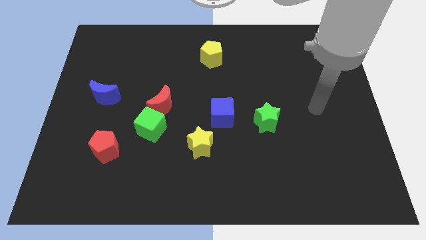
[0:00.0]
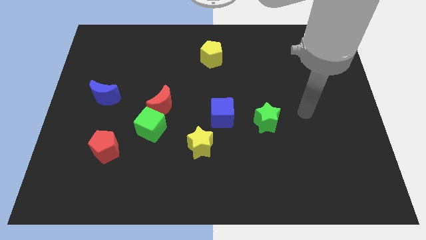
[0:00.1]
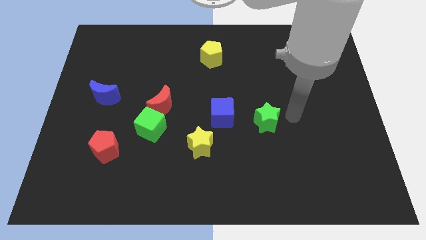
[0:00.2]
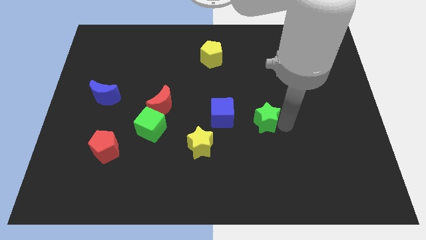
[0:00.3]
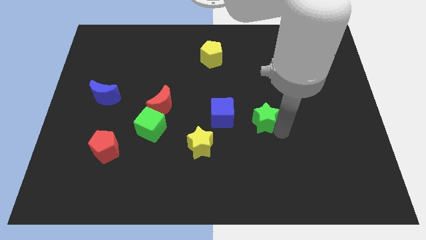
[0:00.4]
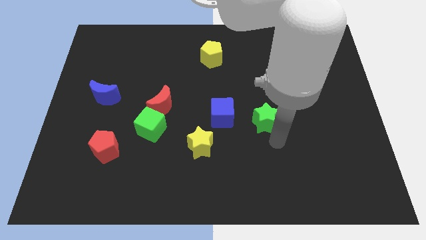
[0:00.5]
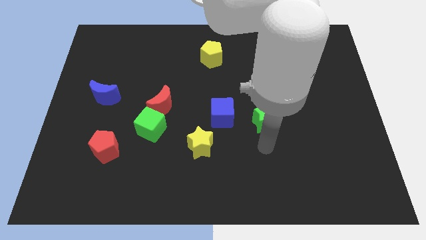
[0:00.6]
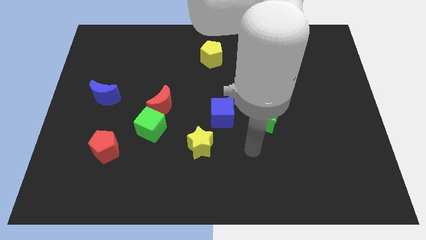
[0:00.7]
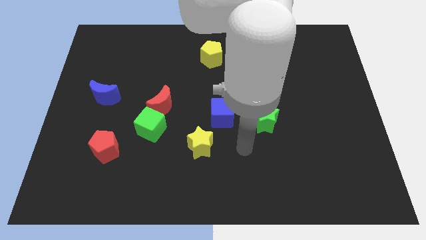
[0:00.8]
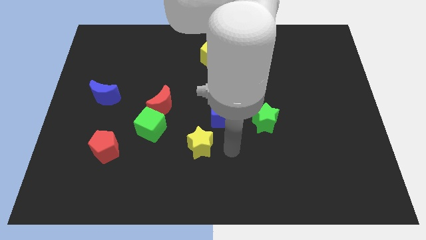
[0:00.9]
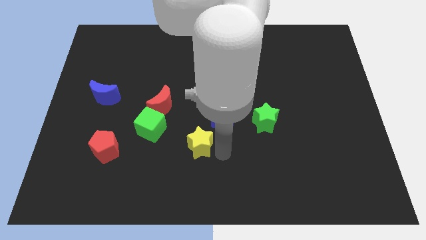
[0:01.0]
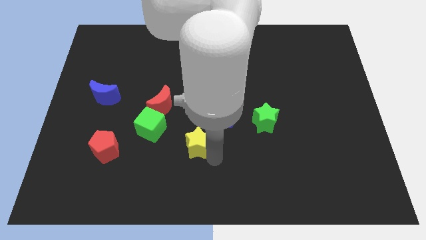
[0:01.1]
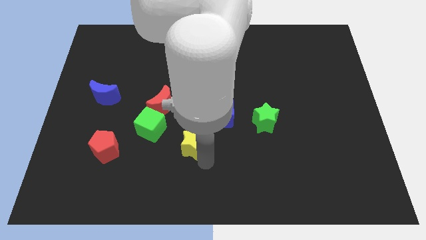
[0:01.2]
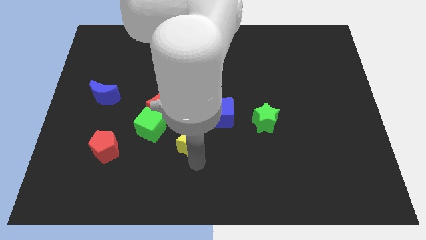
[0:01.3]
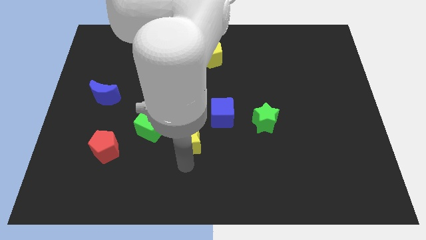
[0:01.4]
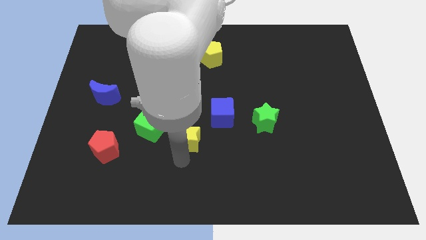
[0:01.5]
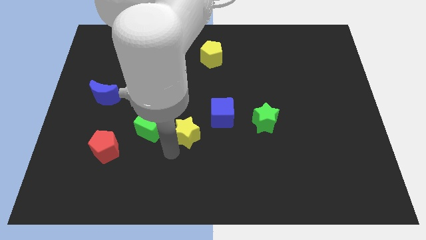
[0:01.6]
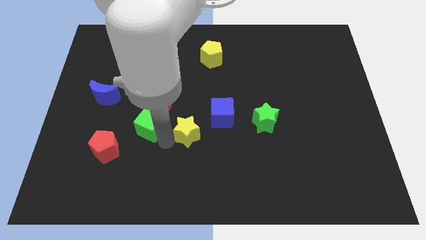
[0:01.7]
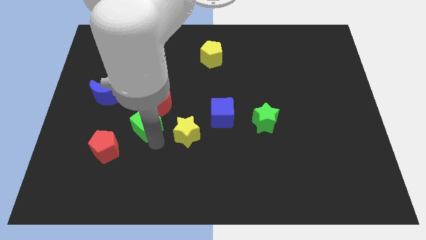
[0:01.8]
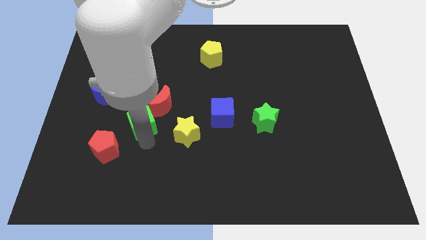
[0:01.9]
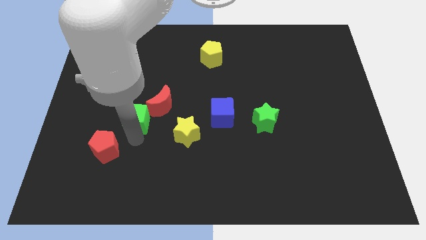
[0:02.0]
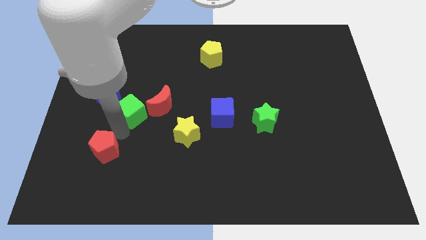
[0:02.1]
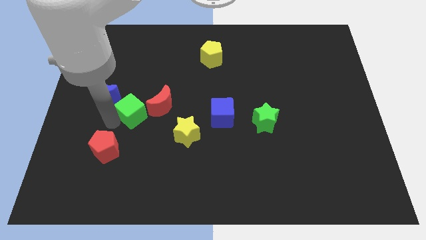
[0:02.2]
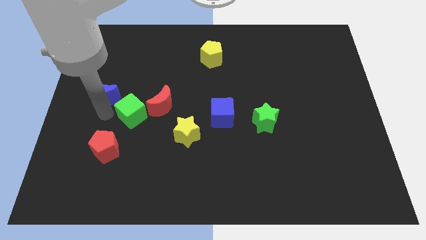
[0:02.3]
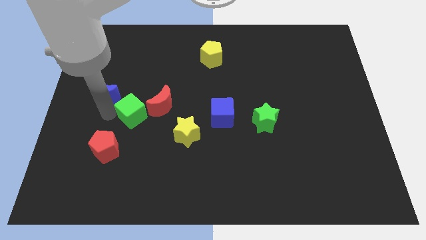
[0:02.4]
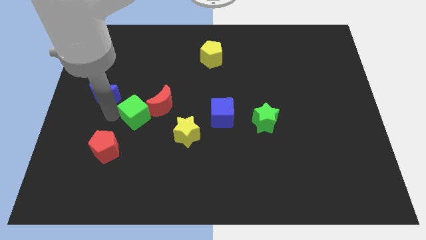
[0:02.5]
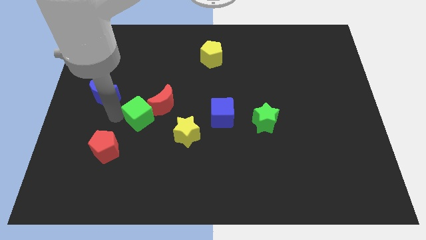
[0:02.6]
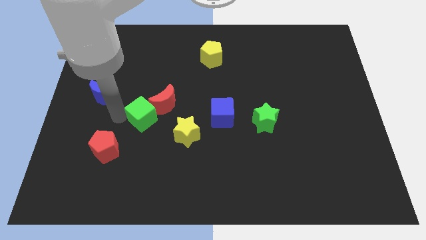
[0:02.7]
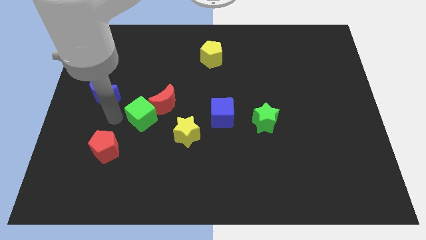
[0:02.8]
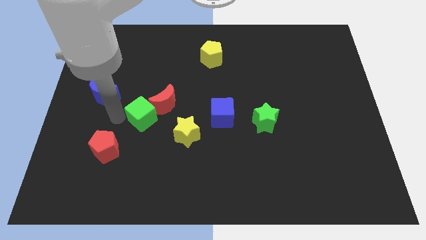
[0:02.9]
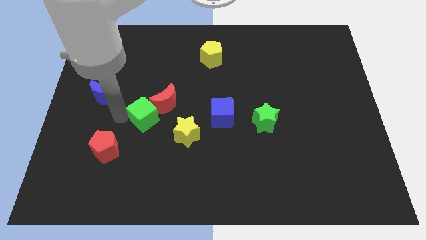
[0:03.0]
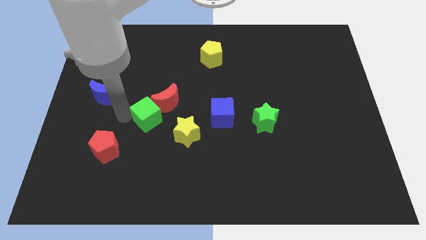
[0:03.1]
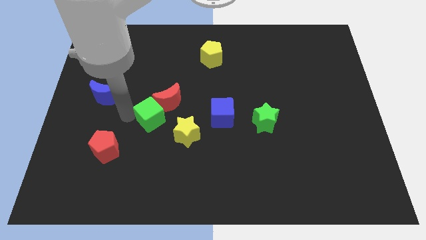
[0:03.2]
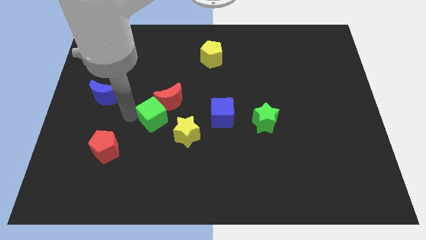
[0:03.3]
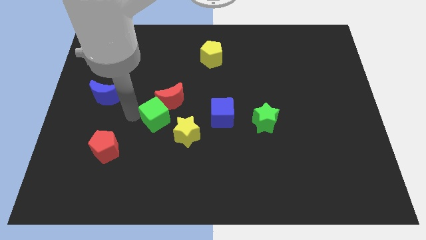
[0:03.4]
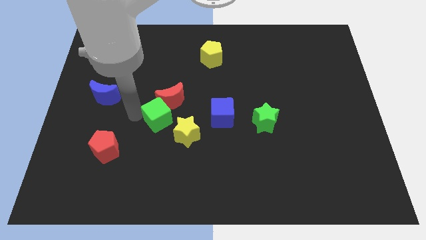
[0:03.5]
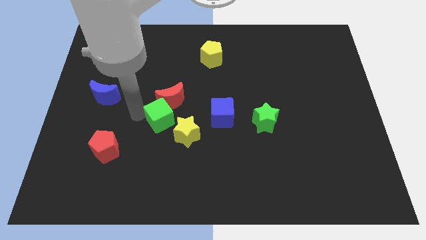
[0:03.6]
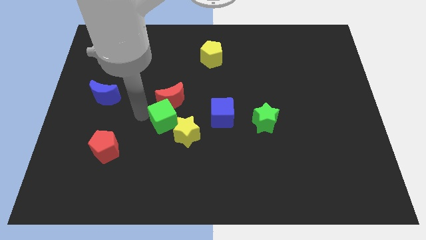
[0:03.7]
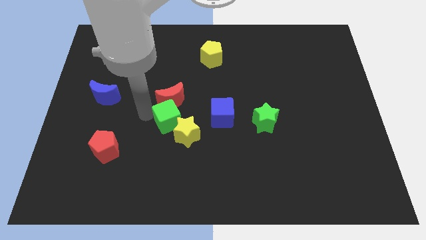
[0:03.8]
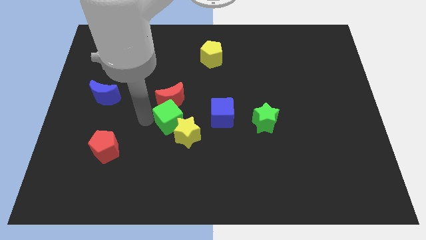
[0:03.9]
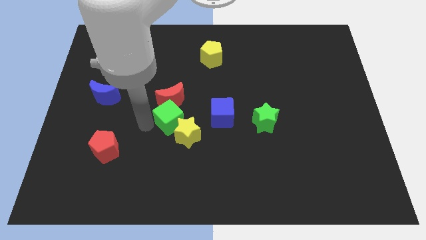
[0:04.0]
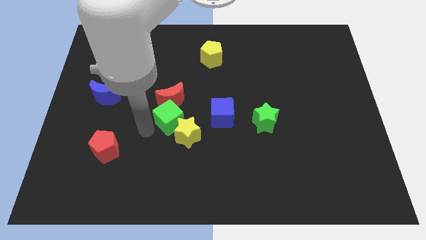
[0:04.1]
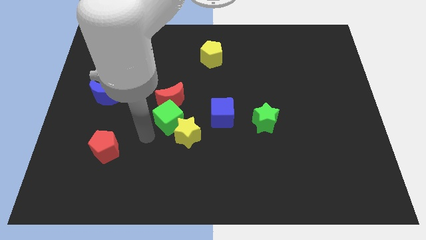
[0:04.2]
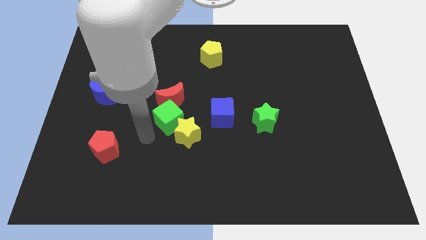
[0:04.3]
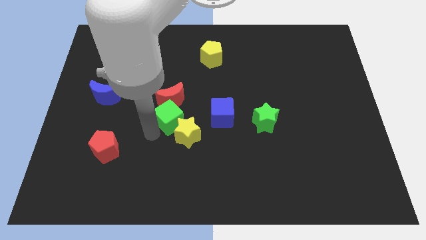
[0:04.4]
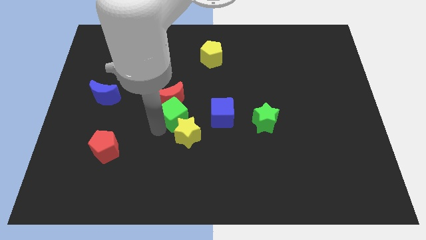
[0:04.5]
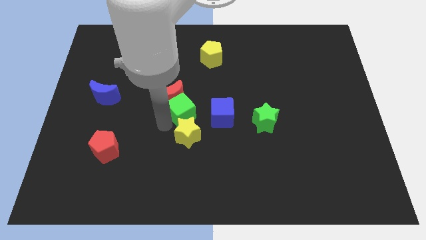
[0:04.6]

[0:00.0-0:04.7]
push the green cube a little up and then right

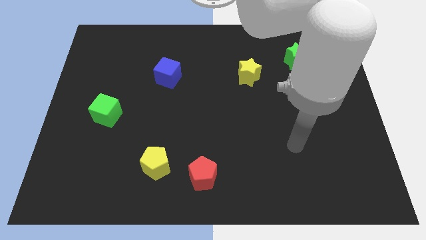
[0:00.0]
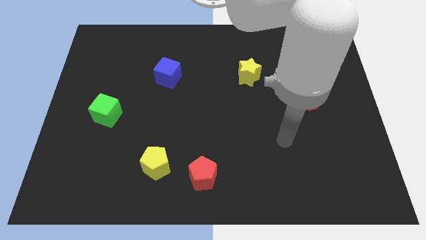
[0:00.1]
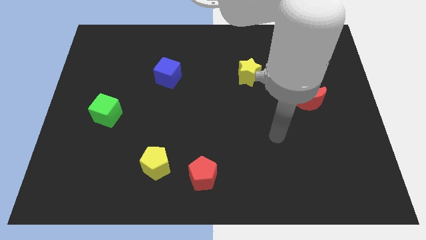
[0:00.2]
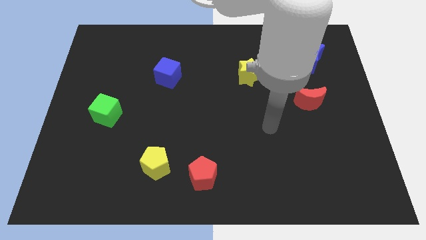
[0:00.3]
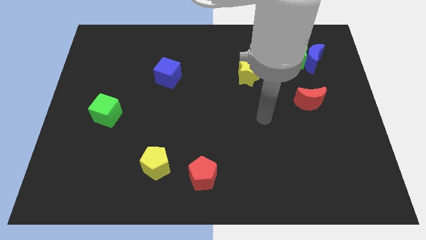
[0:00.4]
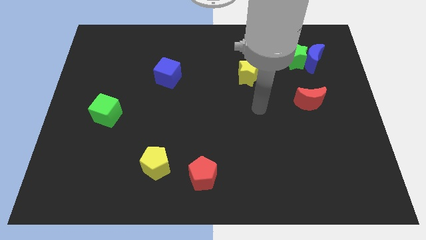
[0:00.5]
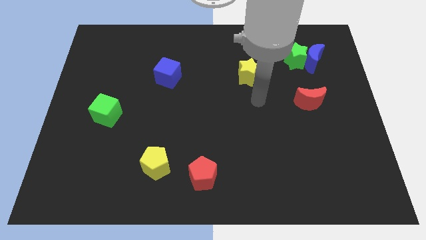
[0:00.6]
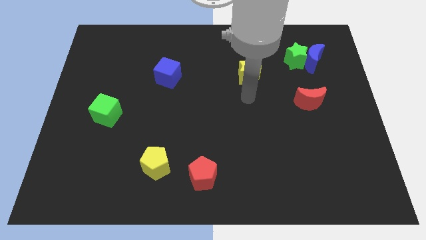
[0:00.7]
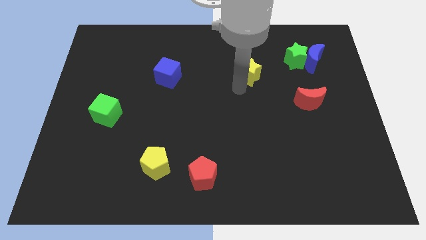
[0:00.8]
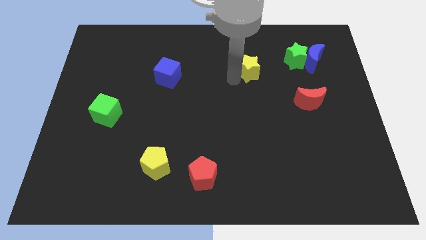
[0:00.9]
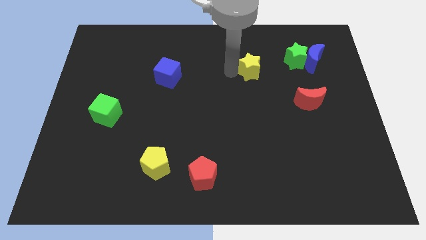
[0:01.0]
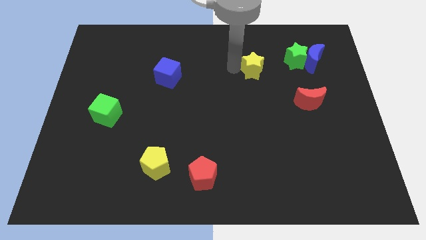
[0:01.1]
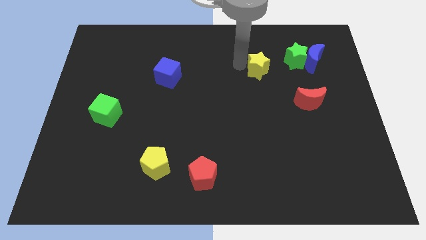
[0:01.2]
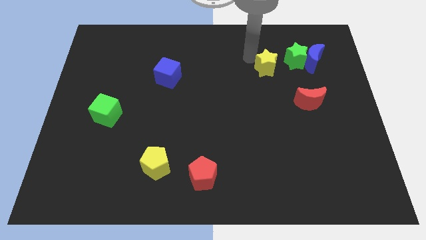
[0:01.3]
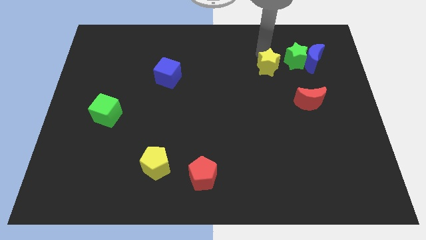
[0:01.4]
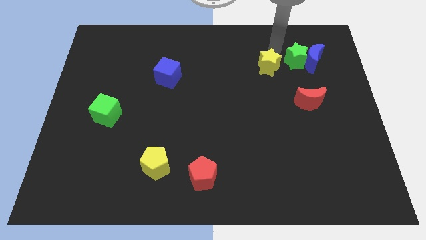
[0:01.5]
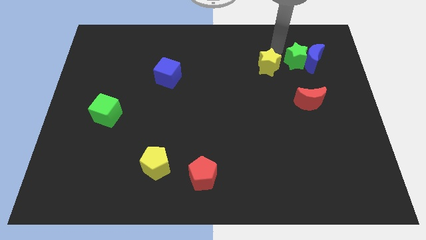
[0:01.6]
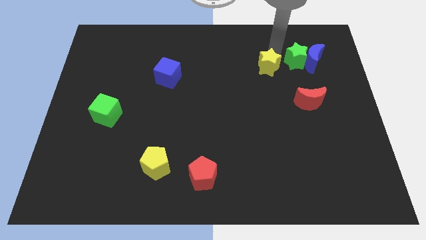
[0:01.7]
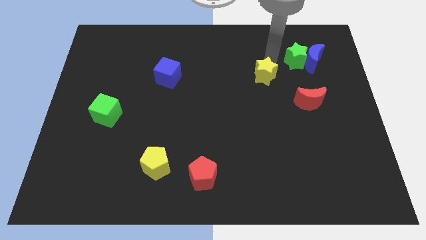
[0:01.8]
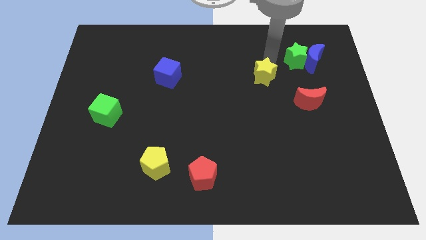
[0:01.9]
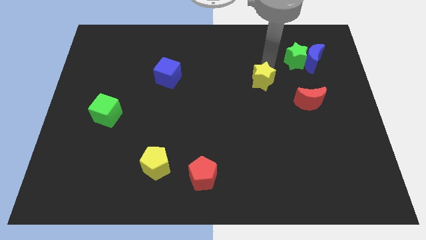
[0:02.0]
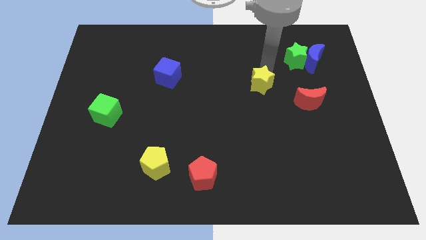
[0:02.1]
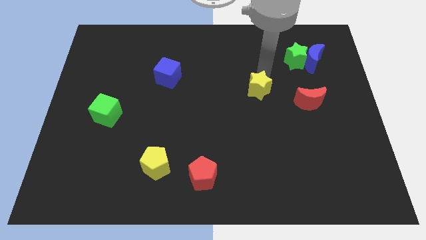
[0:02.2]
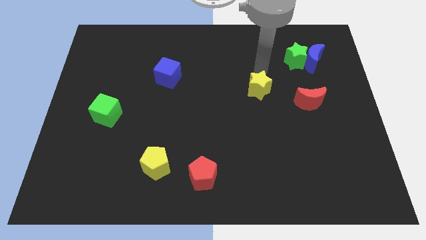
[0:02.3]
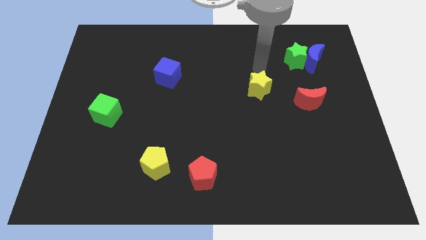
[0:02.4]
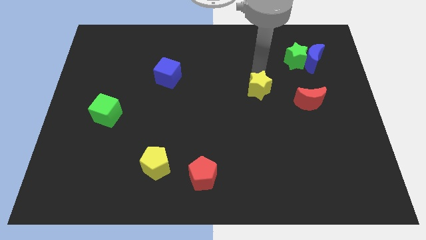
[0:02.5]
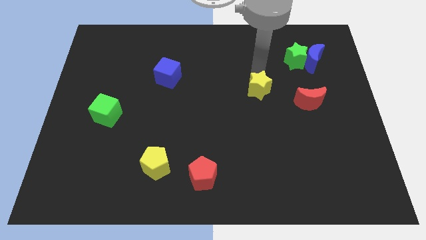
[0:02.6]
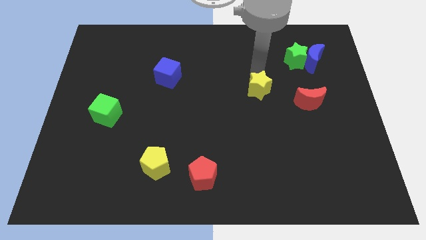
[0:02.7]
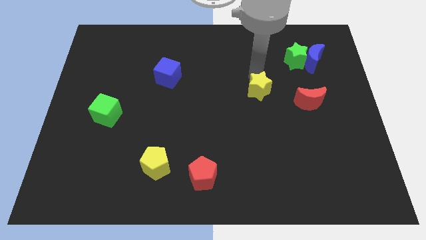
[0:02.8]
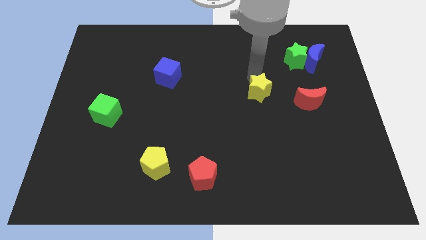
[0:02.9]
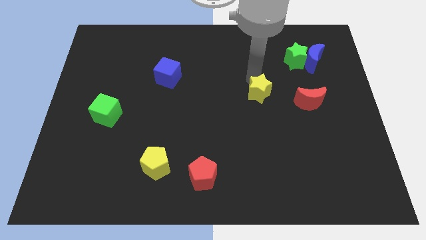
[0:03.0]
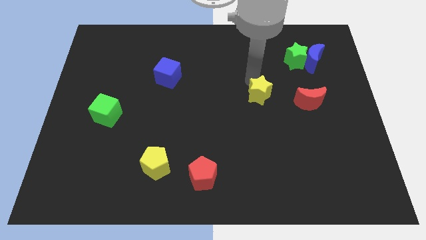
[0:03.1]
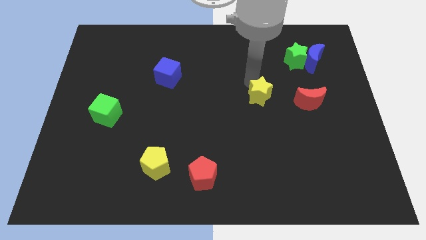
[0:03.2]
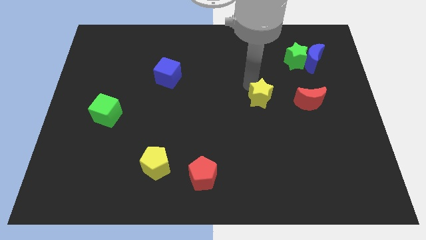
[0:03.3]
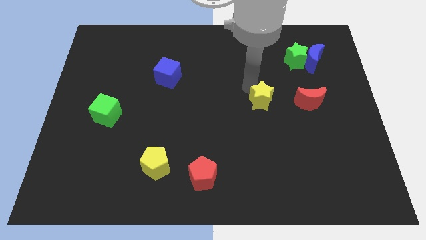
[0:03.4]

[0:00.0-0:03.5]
slightly push the yellow star downwards
